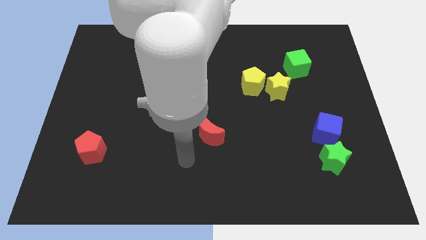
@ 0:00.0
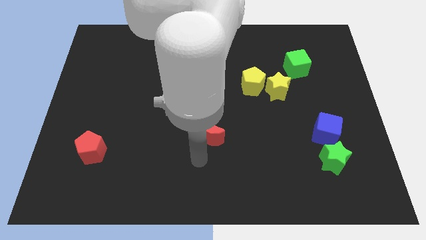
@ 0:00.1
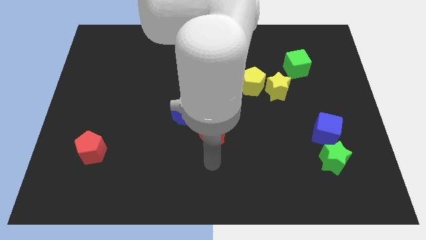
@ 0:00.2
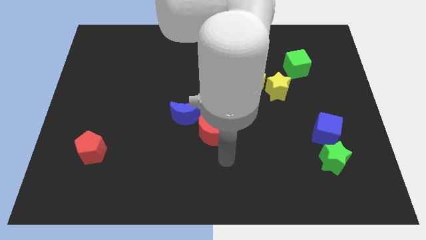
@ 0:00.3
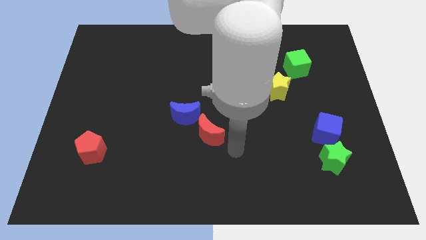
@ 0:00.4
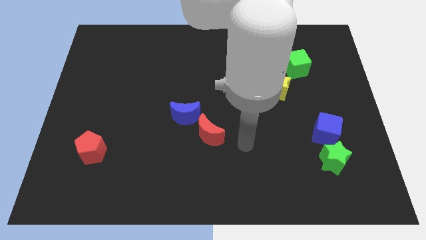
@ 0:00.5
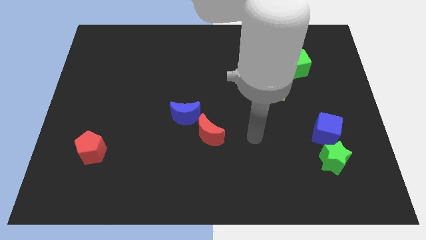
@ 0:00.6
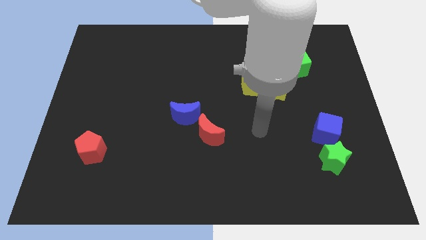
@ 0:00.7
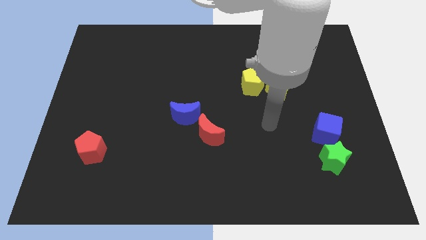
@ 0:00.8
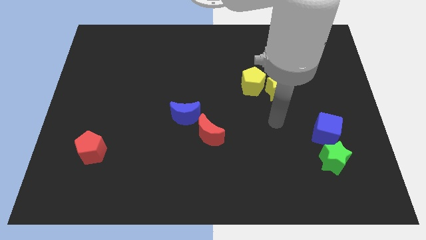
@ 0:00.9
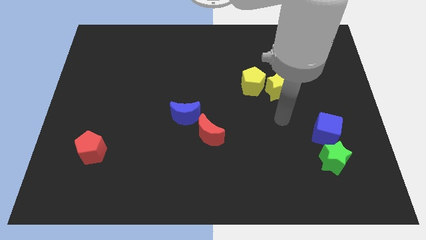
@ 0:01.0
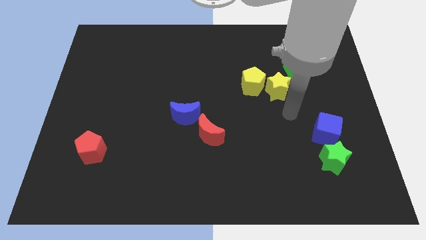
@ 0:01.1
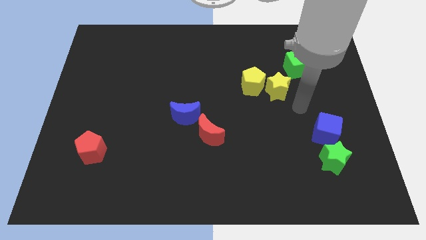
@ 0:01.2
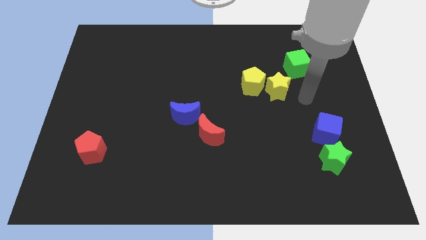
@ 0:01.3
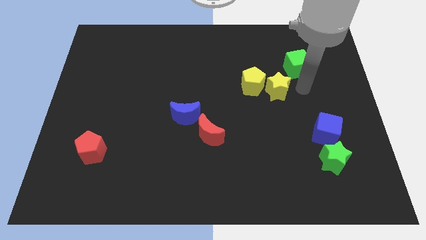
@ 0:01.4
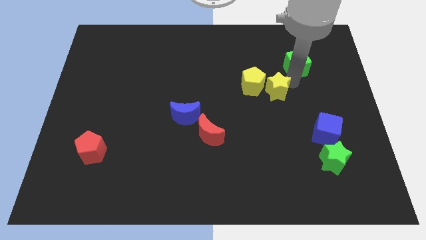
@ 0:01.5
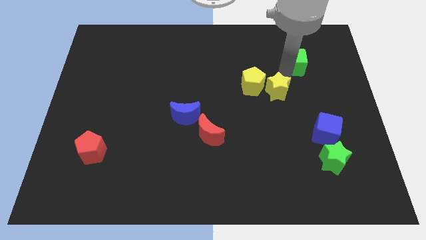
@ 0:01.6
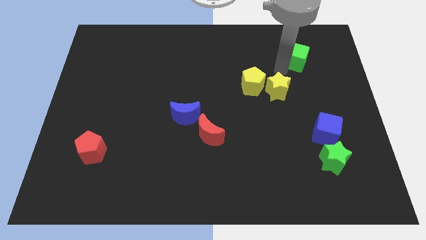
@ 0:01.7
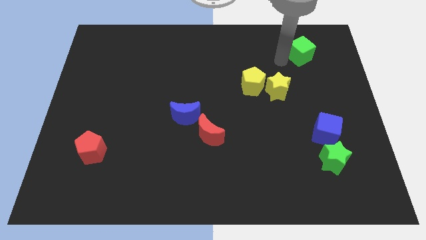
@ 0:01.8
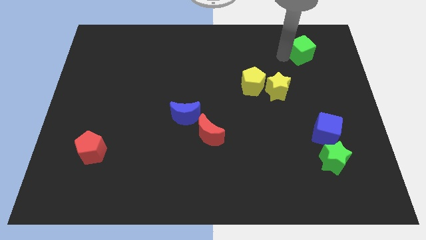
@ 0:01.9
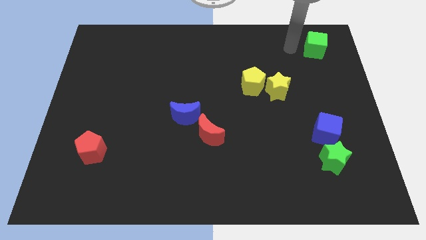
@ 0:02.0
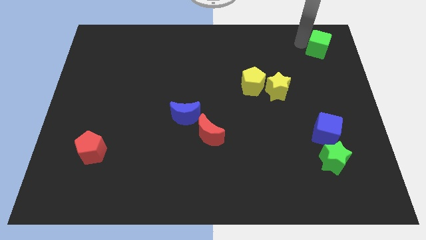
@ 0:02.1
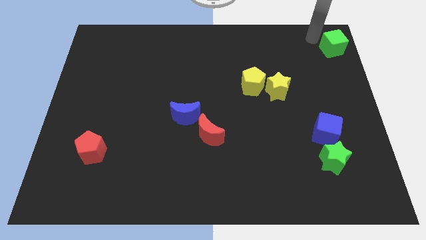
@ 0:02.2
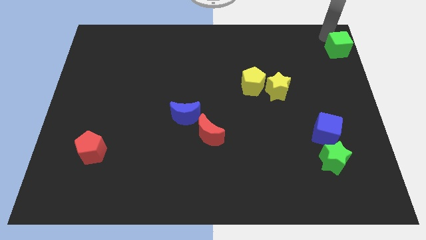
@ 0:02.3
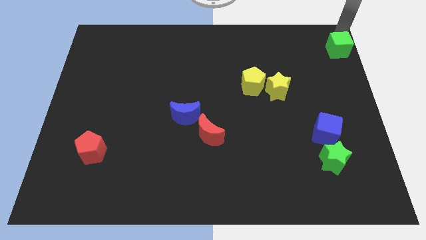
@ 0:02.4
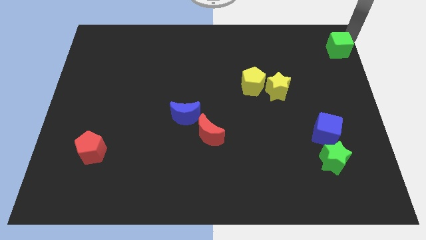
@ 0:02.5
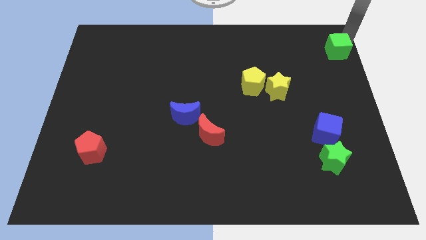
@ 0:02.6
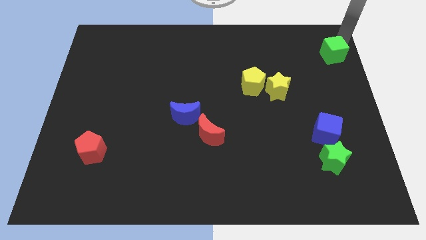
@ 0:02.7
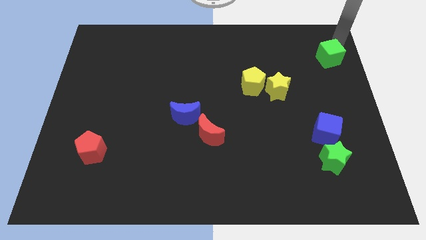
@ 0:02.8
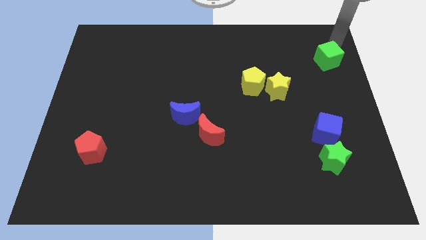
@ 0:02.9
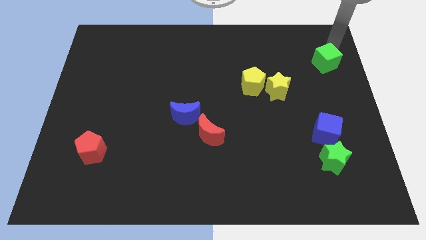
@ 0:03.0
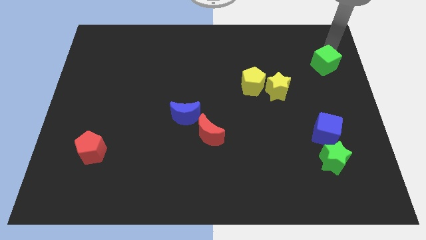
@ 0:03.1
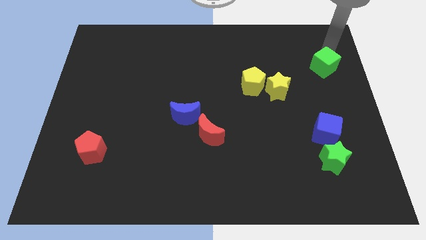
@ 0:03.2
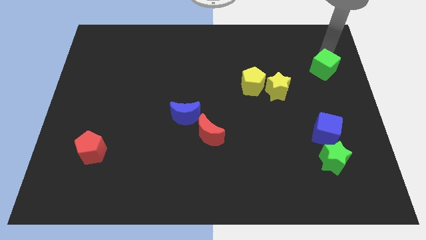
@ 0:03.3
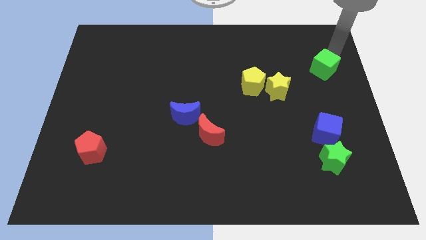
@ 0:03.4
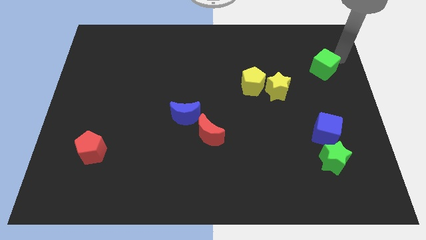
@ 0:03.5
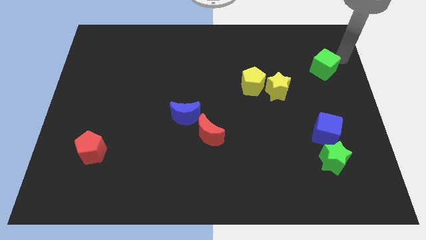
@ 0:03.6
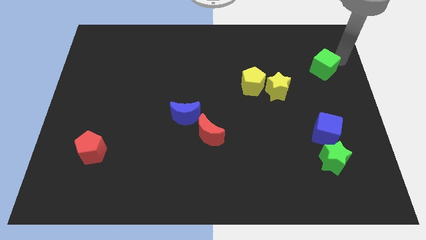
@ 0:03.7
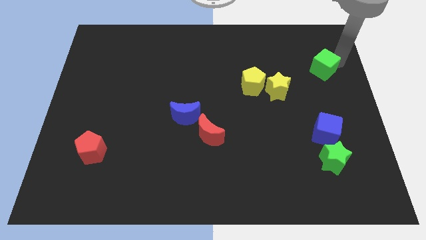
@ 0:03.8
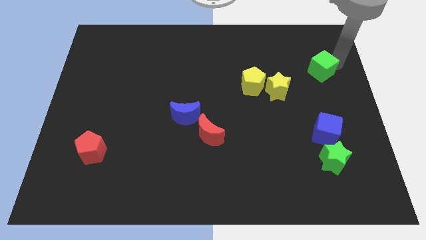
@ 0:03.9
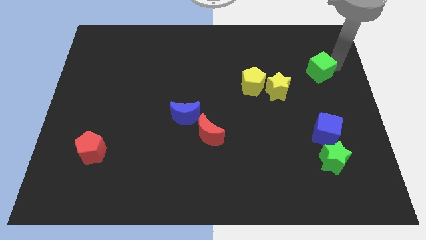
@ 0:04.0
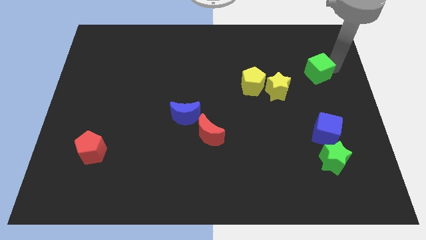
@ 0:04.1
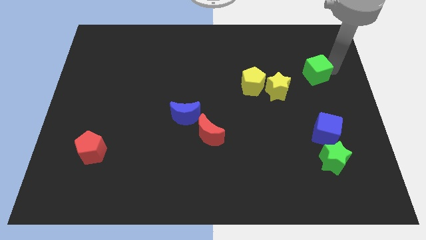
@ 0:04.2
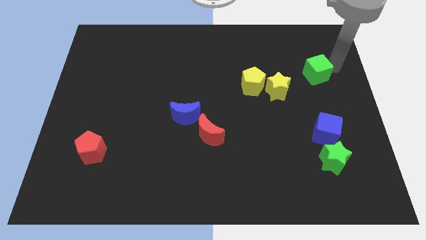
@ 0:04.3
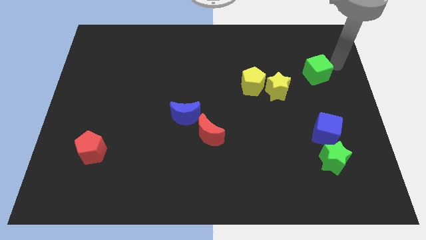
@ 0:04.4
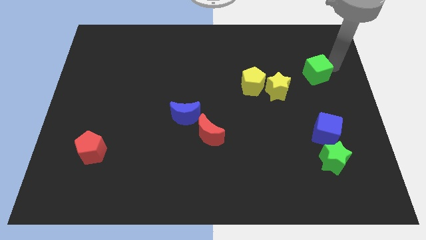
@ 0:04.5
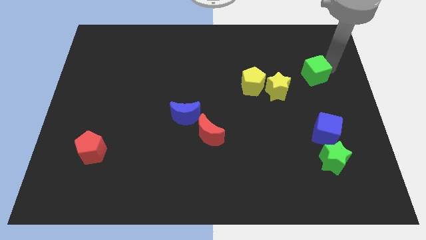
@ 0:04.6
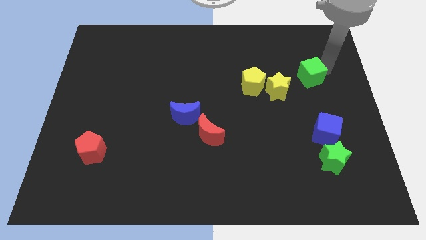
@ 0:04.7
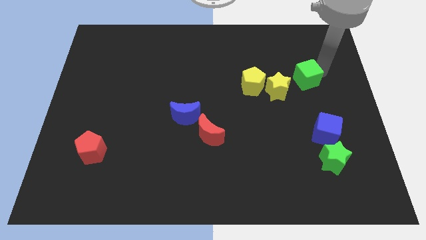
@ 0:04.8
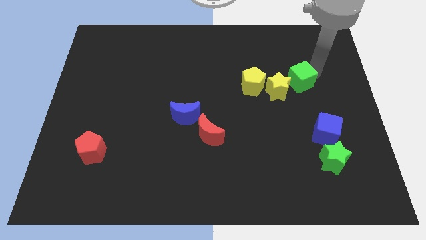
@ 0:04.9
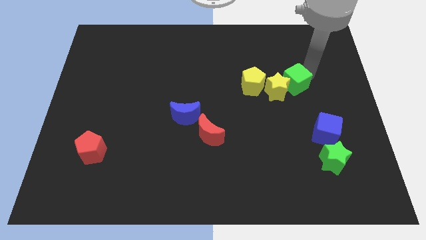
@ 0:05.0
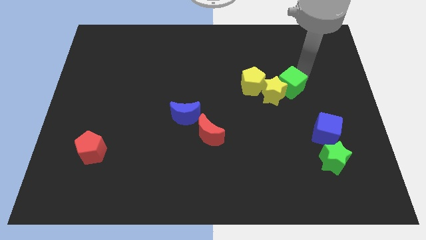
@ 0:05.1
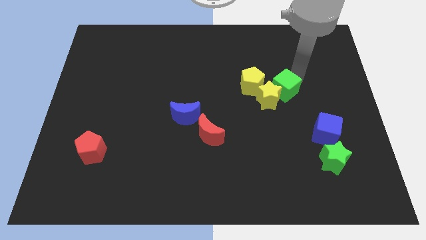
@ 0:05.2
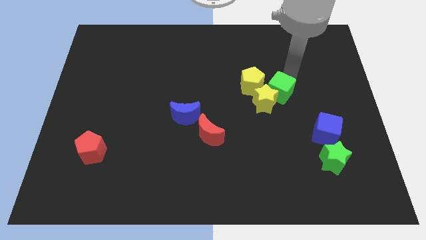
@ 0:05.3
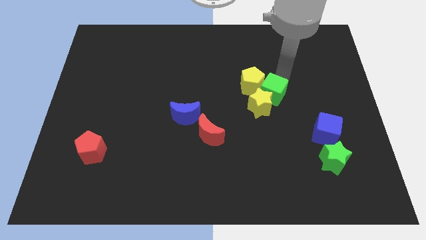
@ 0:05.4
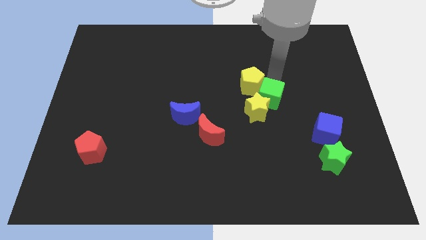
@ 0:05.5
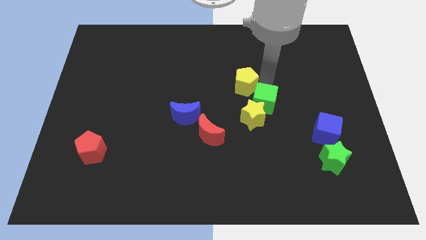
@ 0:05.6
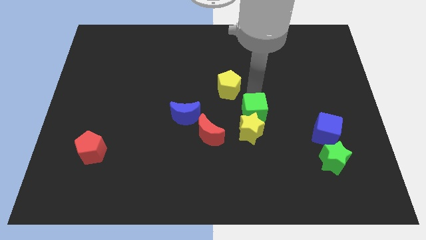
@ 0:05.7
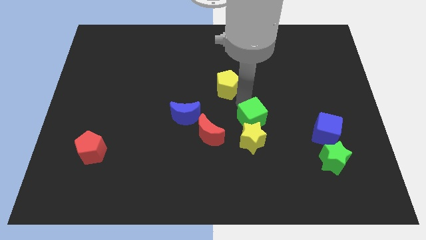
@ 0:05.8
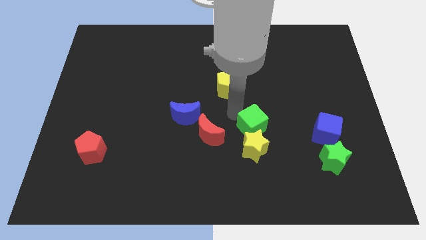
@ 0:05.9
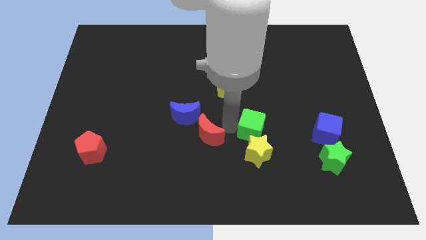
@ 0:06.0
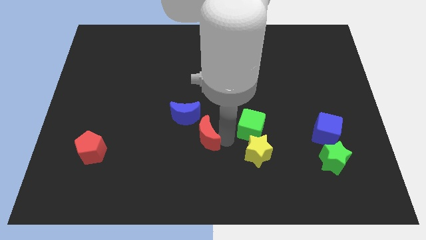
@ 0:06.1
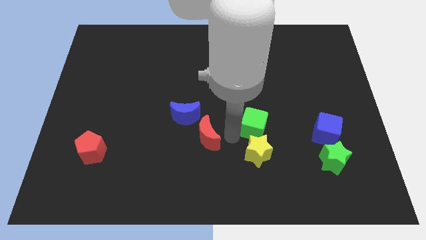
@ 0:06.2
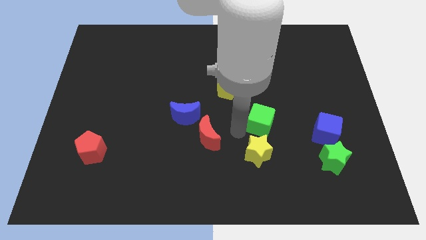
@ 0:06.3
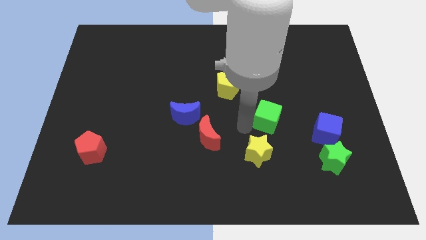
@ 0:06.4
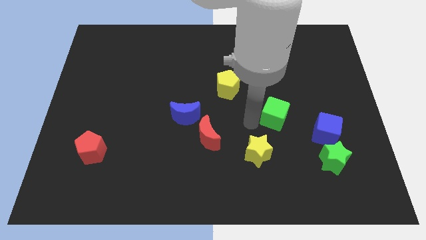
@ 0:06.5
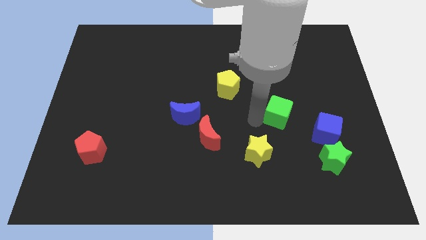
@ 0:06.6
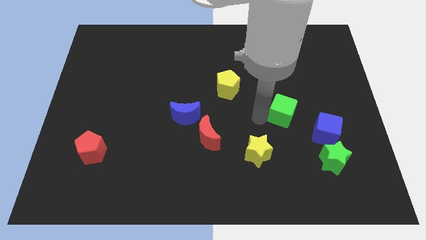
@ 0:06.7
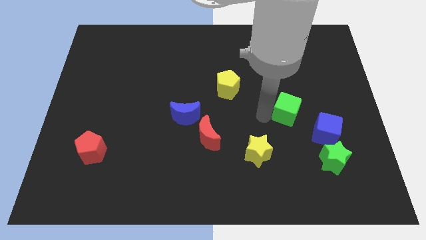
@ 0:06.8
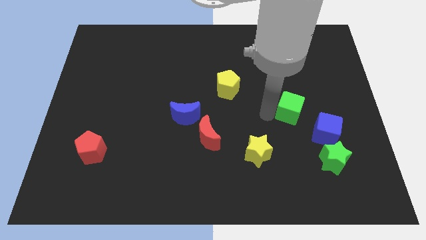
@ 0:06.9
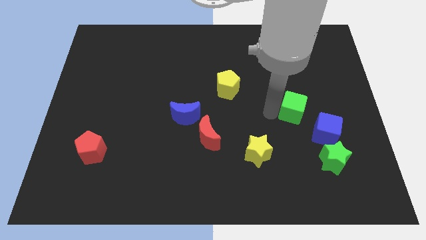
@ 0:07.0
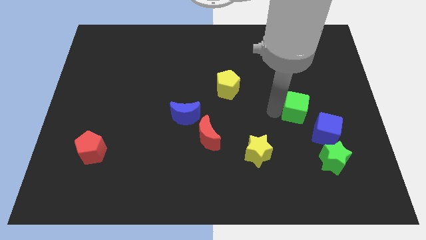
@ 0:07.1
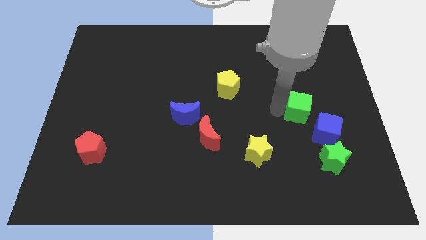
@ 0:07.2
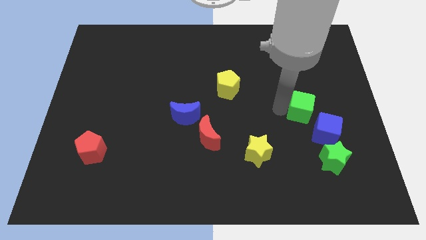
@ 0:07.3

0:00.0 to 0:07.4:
put the green cube above the blue cube
